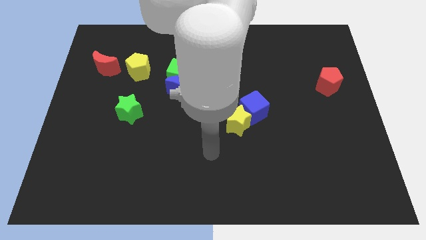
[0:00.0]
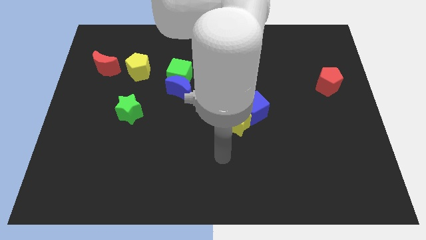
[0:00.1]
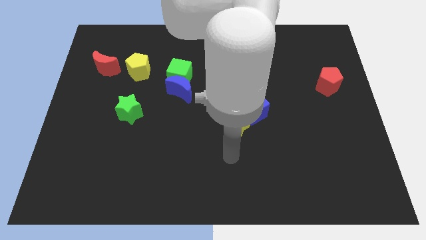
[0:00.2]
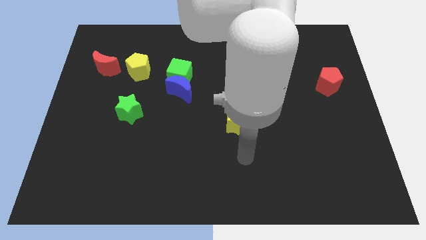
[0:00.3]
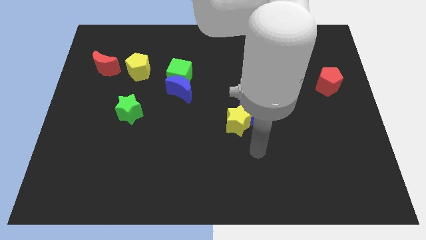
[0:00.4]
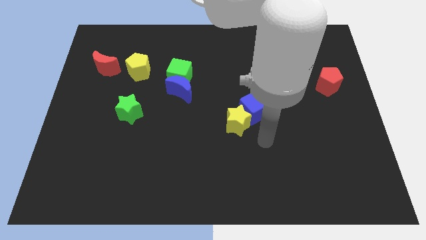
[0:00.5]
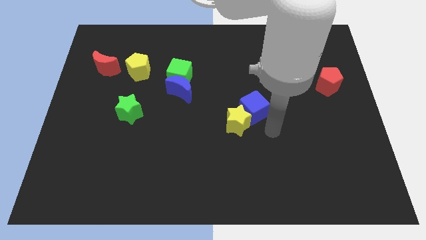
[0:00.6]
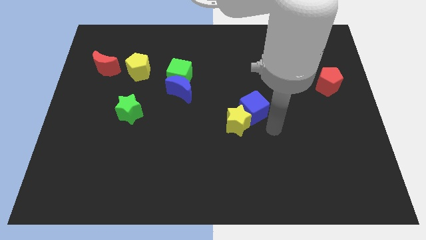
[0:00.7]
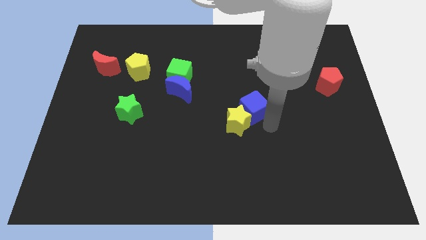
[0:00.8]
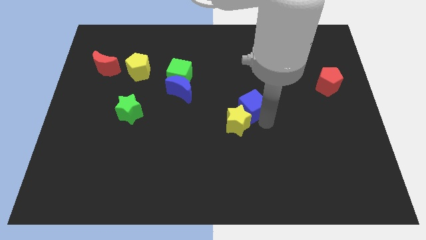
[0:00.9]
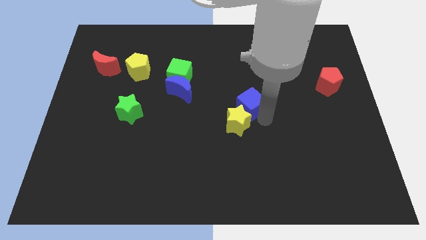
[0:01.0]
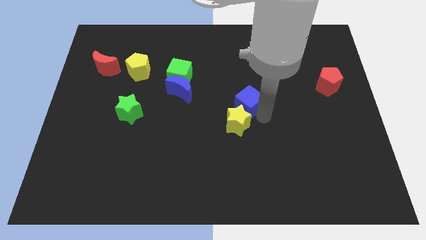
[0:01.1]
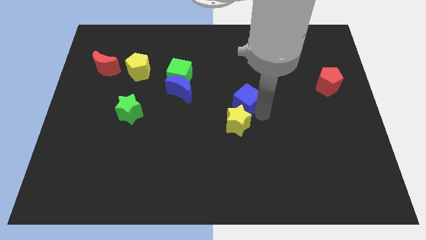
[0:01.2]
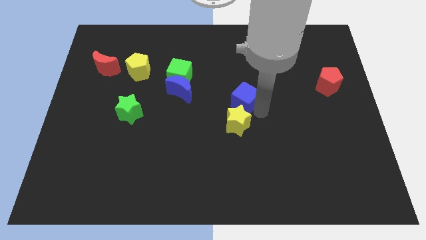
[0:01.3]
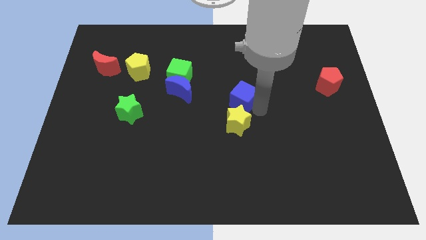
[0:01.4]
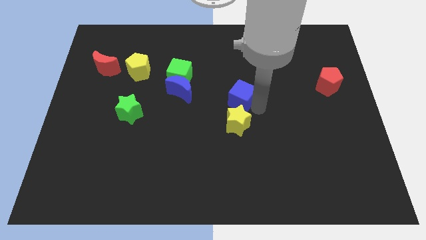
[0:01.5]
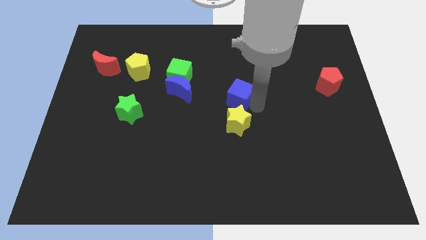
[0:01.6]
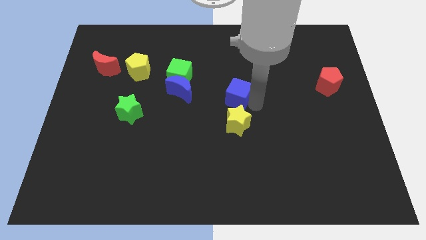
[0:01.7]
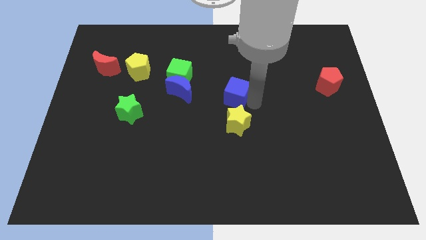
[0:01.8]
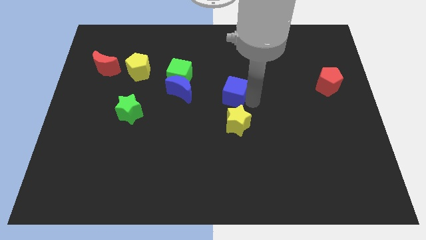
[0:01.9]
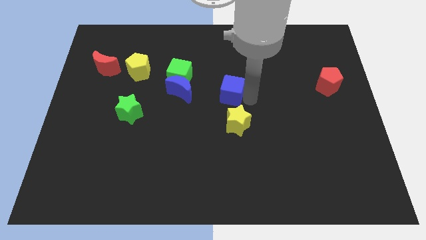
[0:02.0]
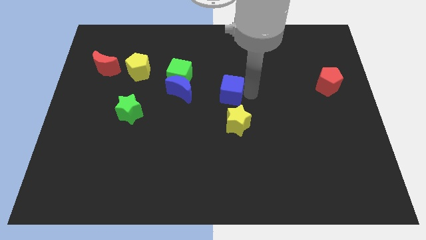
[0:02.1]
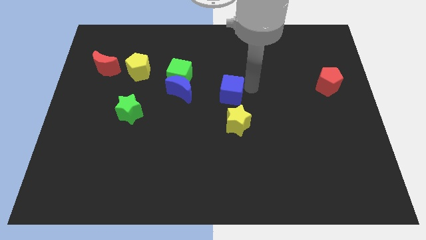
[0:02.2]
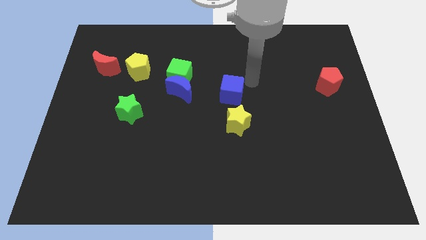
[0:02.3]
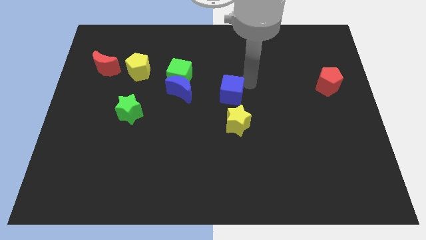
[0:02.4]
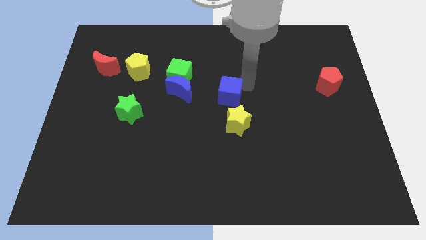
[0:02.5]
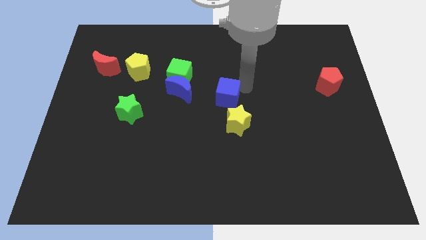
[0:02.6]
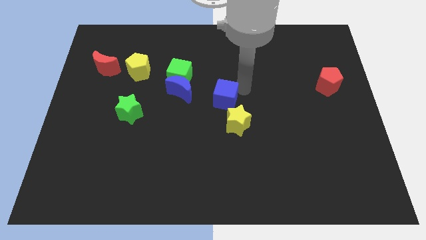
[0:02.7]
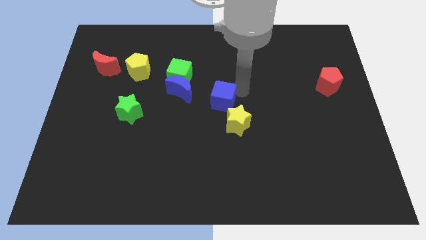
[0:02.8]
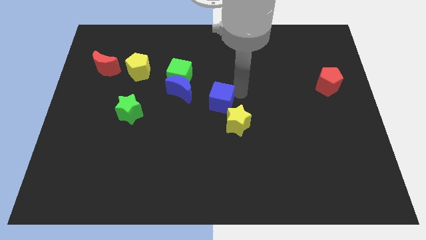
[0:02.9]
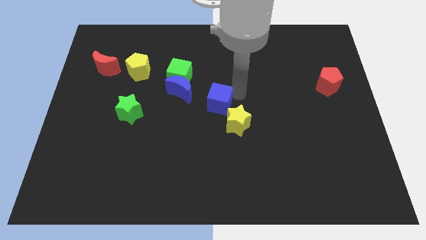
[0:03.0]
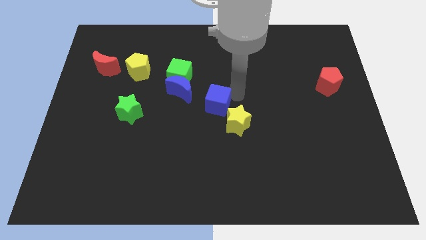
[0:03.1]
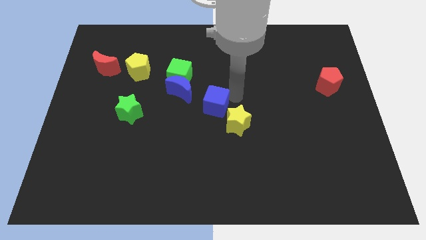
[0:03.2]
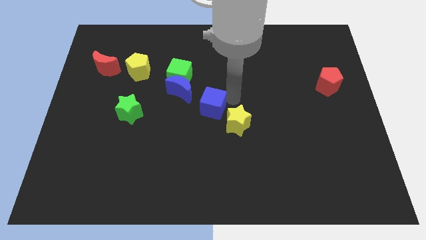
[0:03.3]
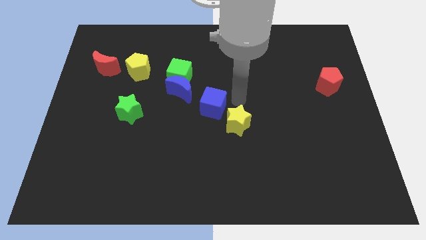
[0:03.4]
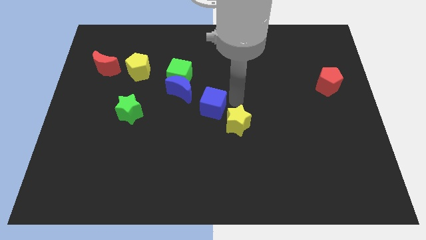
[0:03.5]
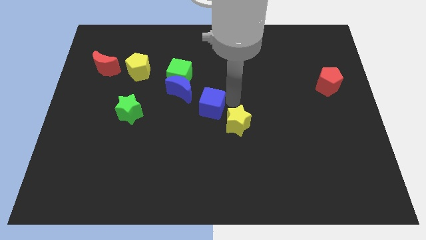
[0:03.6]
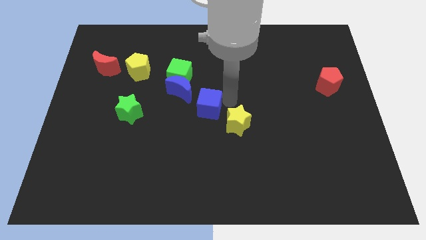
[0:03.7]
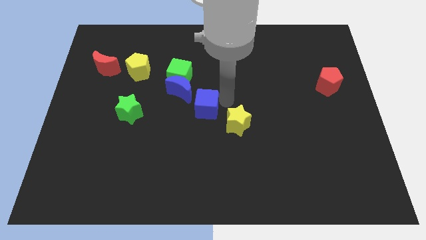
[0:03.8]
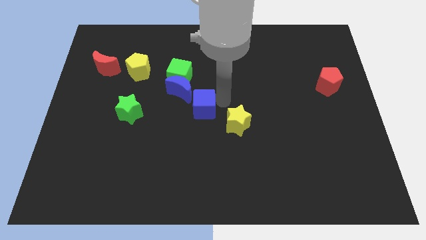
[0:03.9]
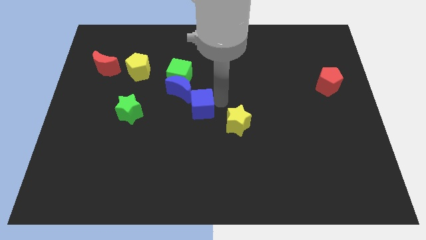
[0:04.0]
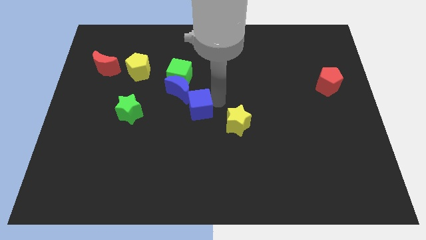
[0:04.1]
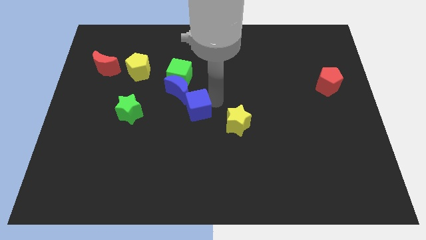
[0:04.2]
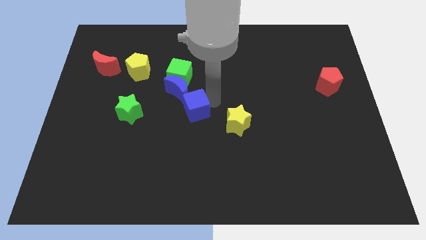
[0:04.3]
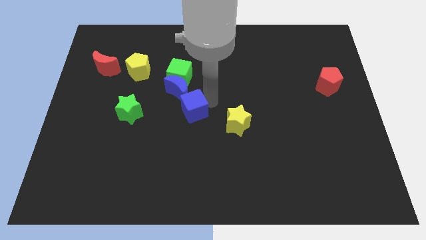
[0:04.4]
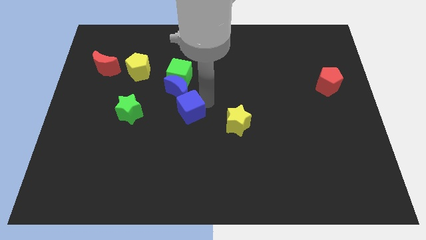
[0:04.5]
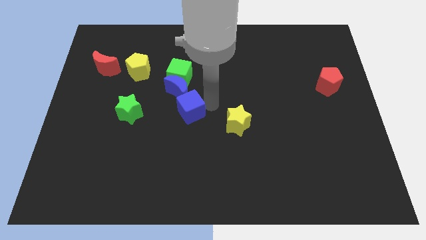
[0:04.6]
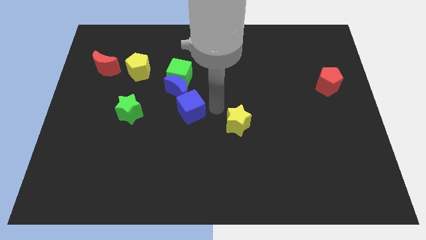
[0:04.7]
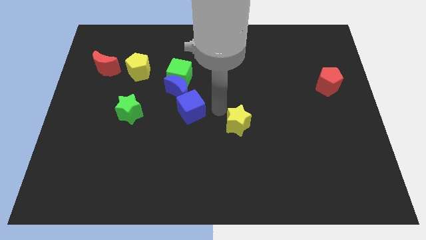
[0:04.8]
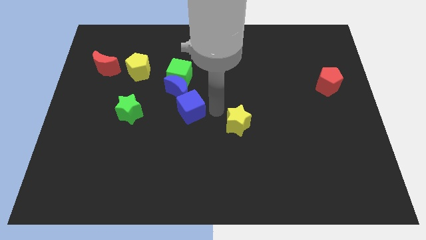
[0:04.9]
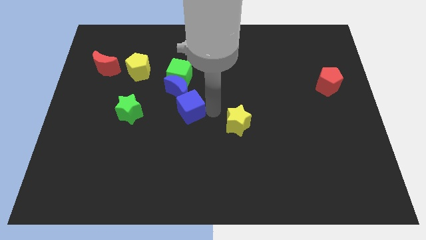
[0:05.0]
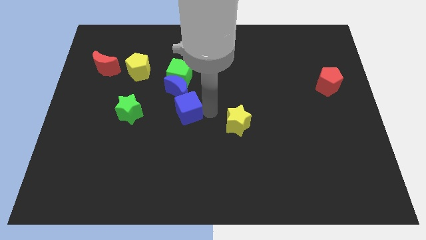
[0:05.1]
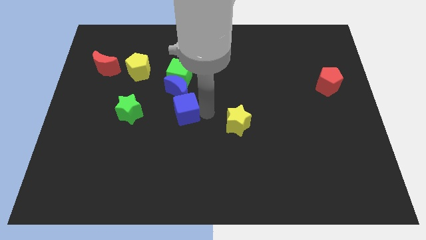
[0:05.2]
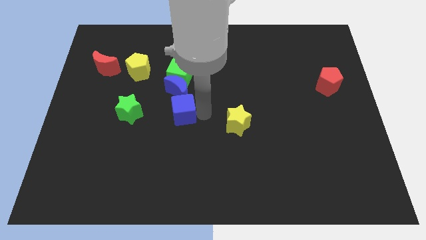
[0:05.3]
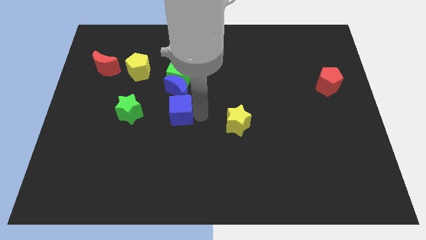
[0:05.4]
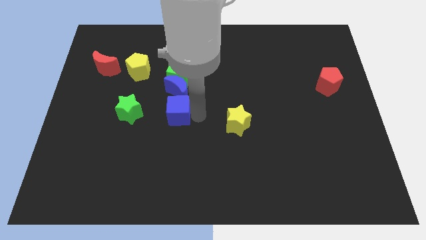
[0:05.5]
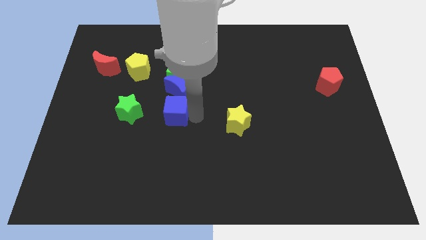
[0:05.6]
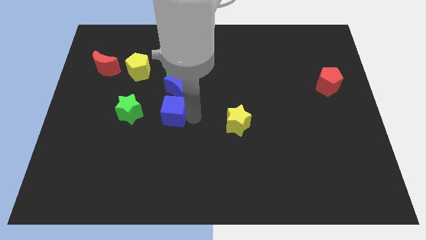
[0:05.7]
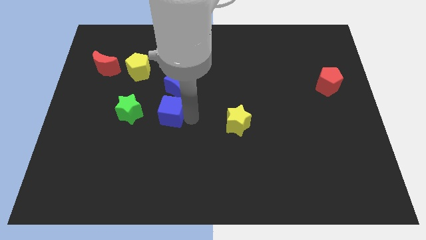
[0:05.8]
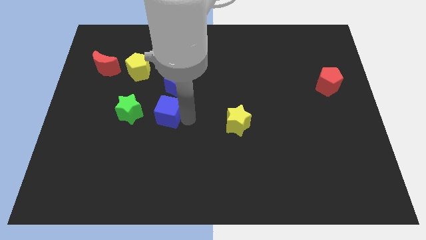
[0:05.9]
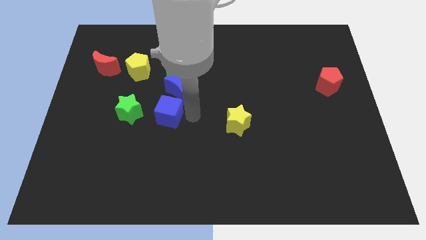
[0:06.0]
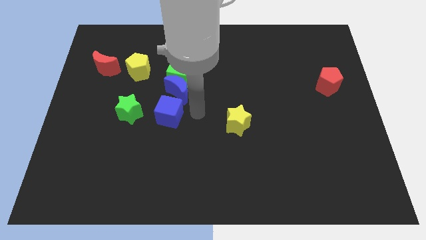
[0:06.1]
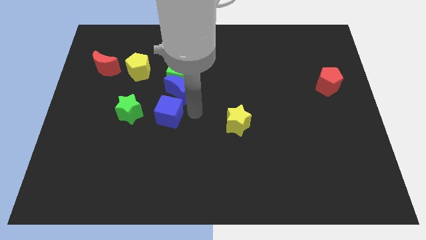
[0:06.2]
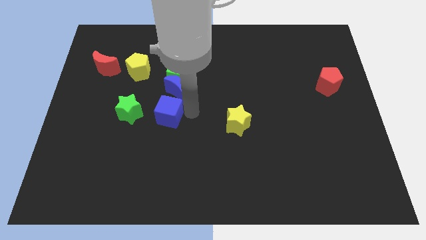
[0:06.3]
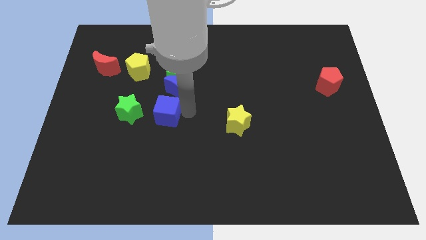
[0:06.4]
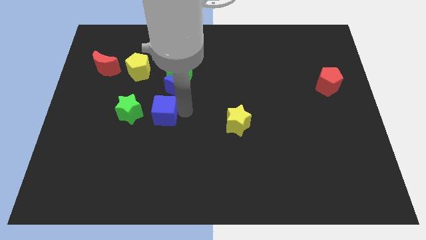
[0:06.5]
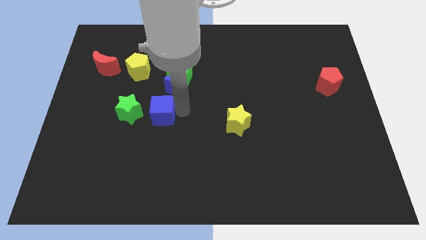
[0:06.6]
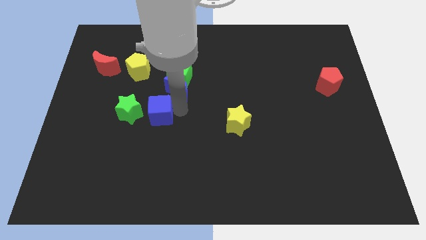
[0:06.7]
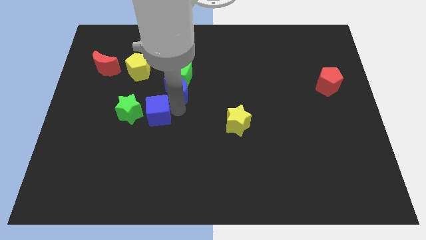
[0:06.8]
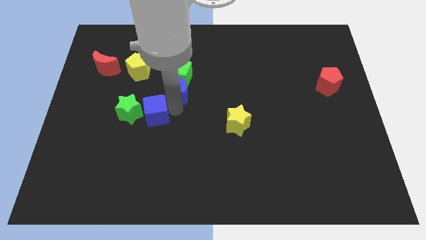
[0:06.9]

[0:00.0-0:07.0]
put the blue cube to the green star
